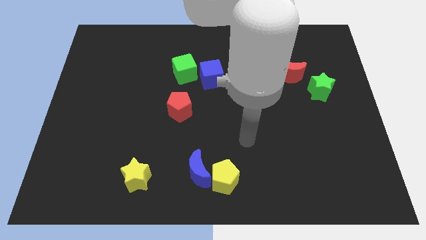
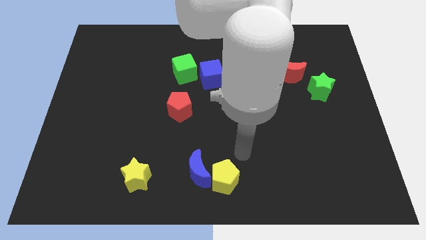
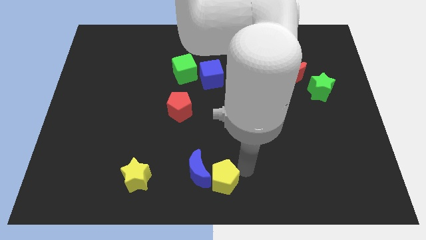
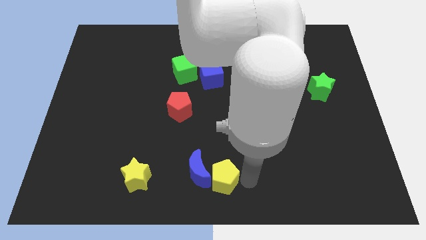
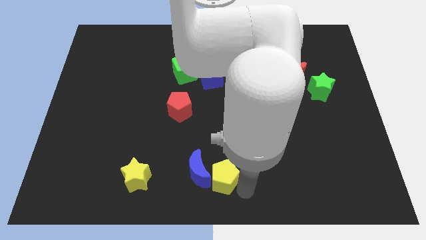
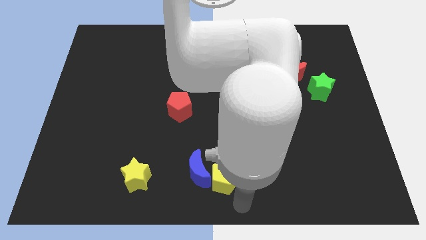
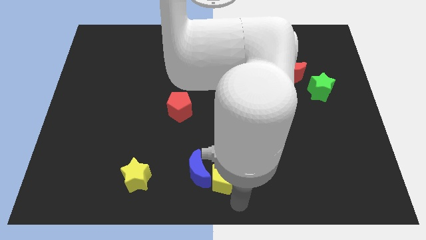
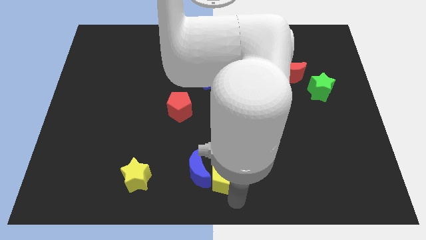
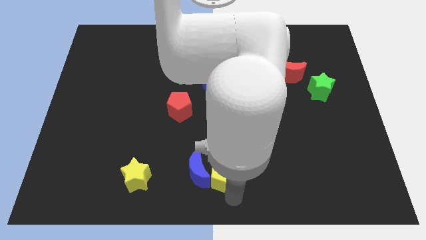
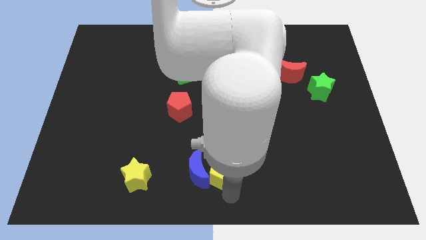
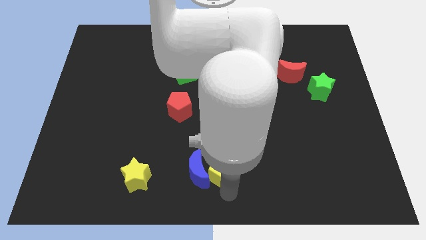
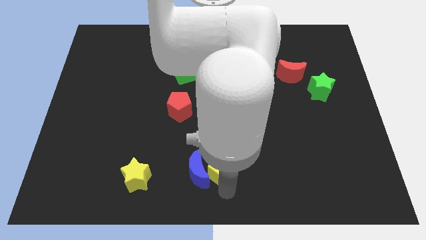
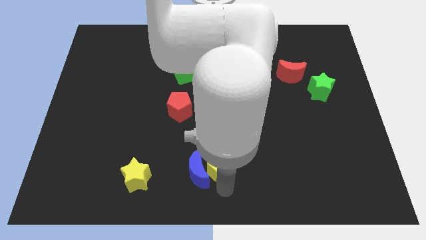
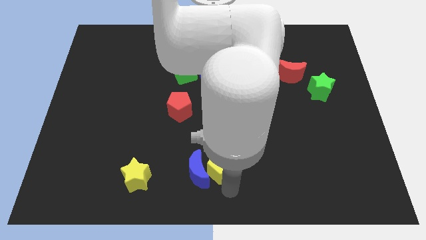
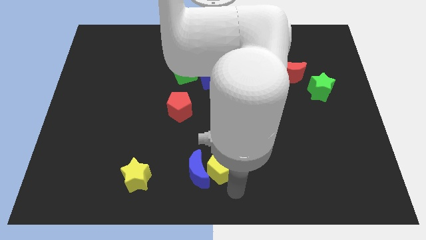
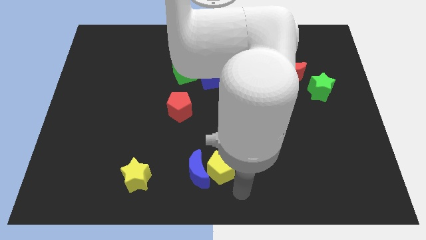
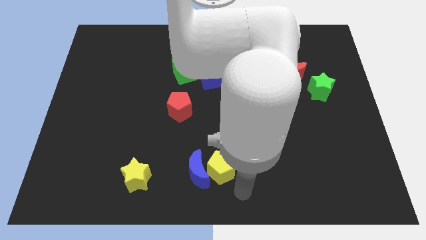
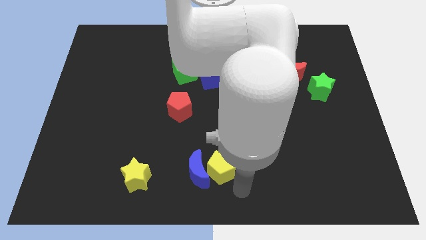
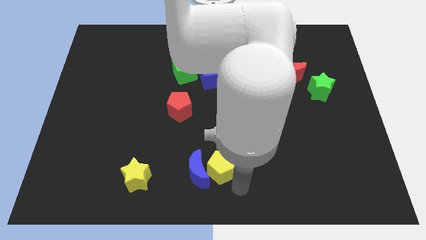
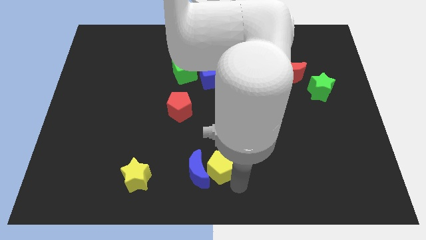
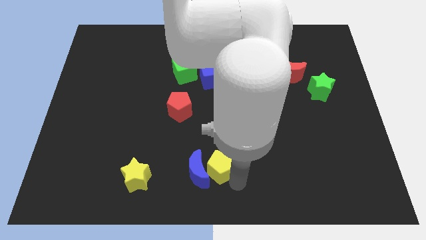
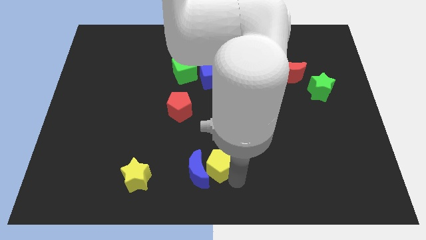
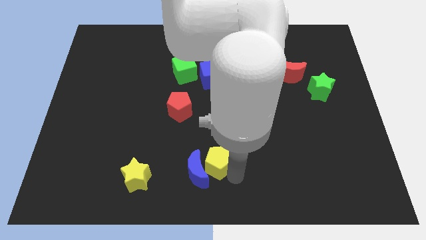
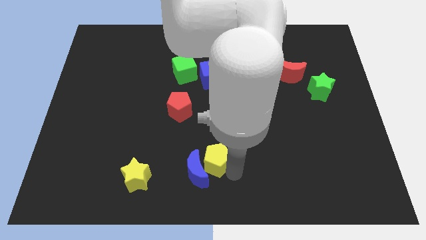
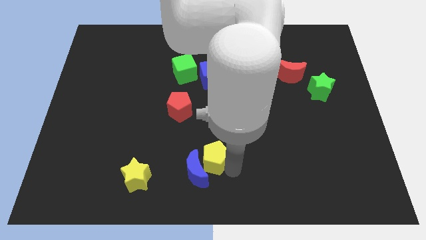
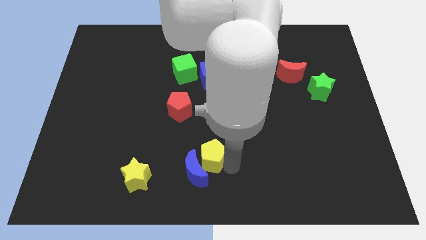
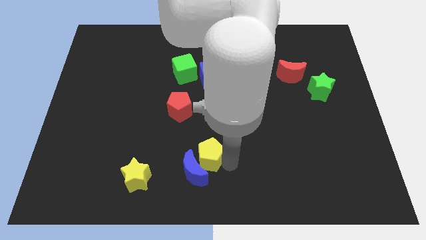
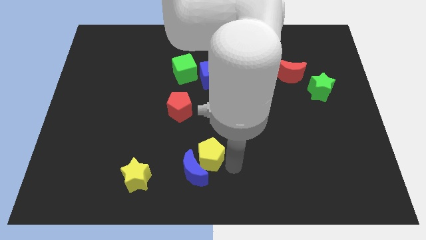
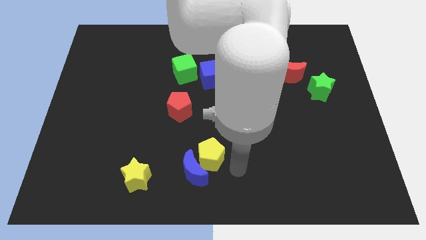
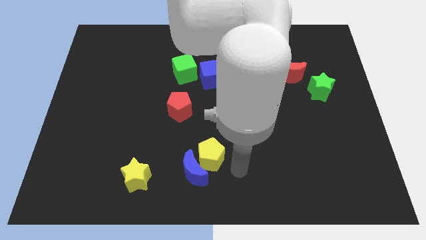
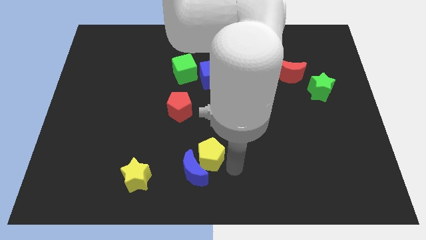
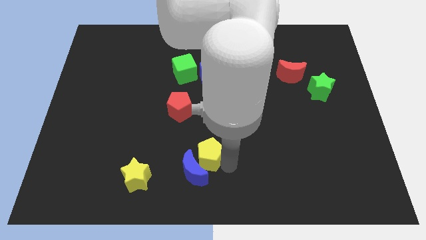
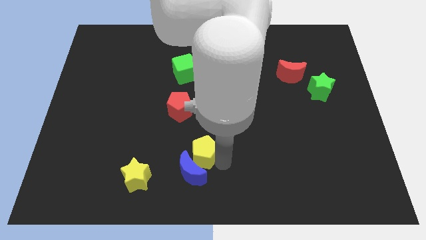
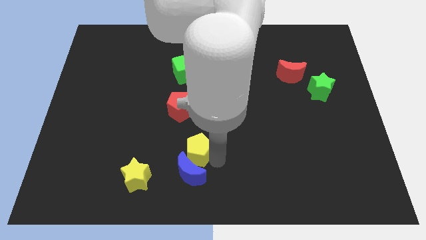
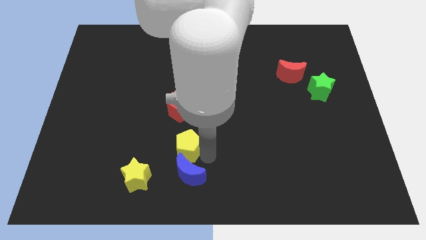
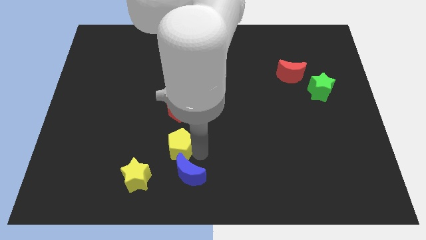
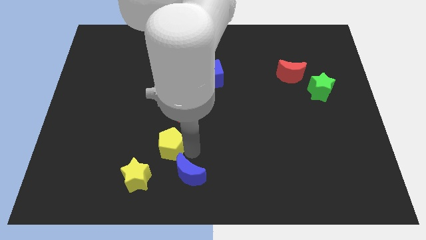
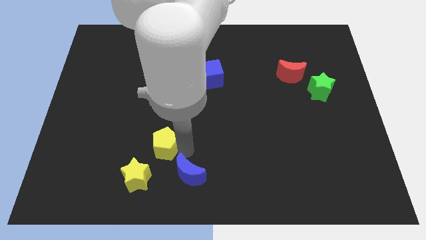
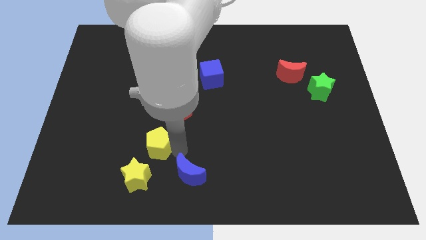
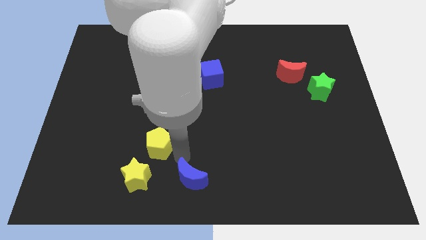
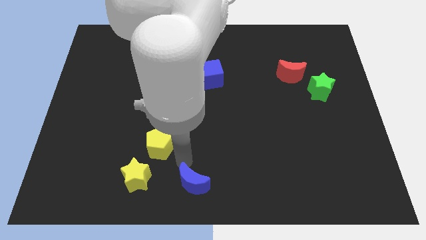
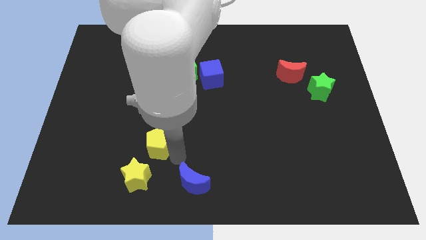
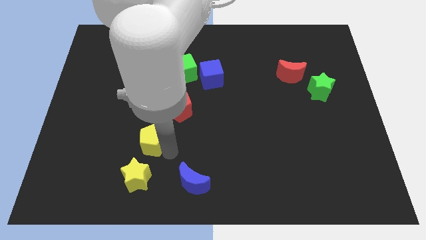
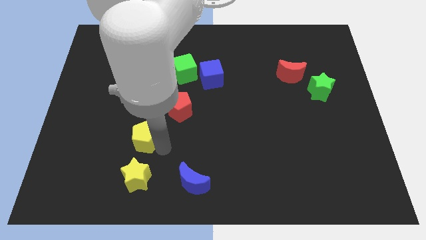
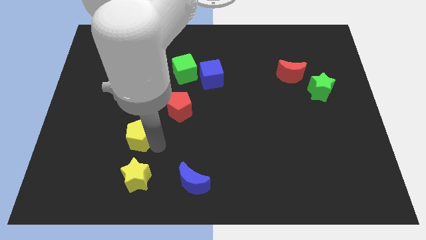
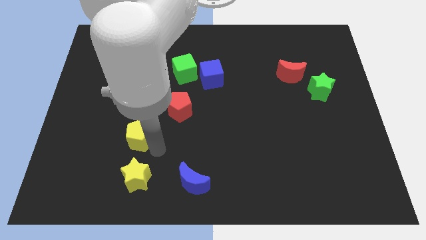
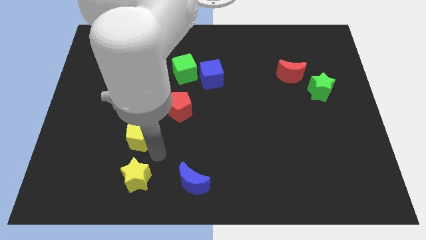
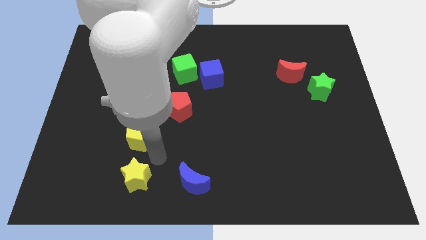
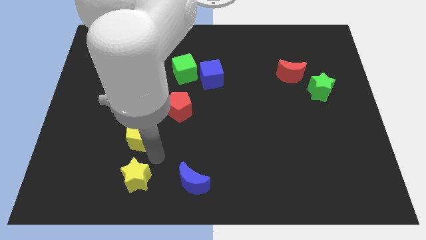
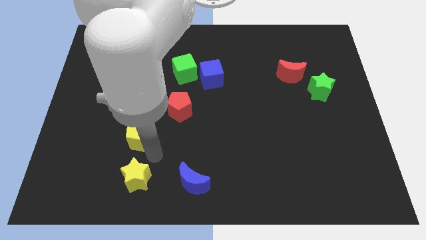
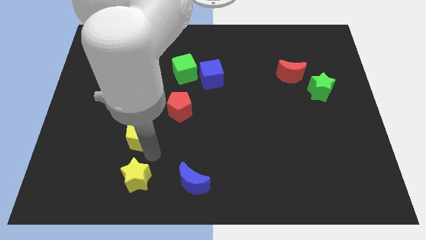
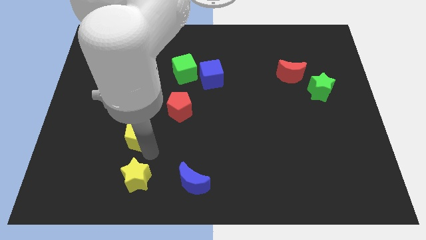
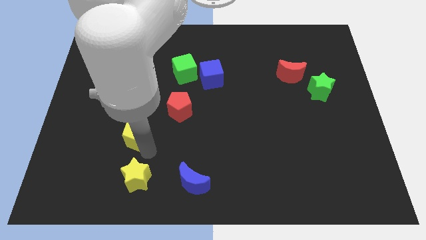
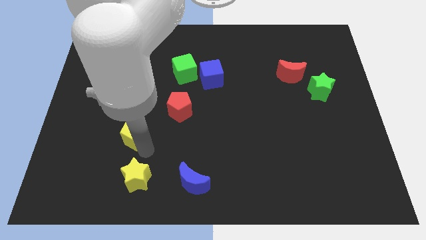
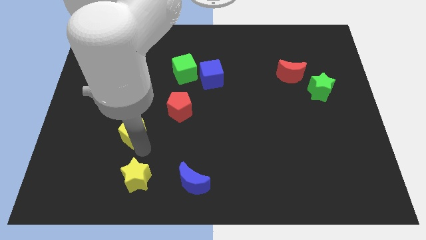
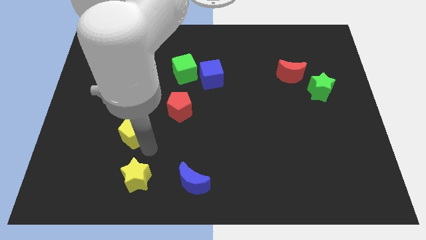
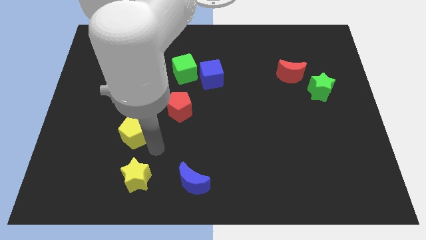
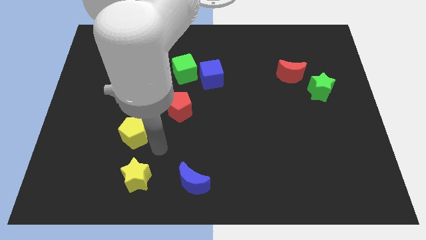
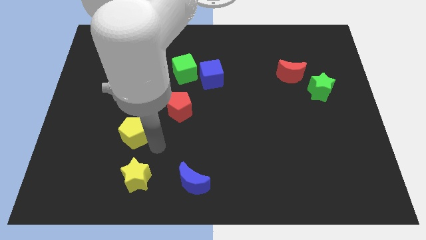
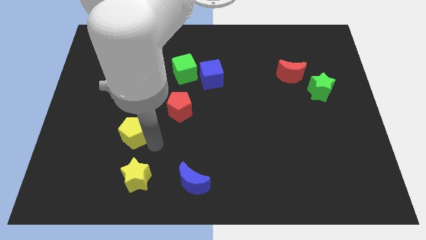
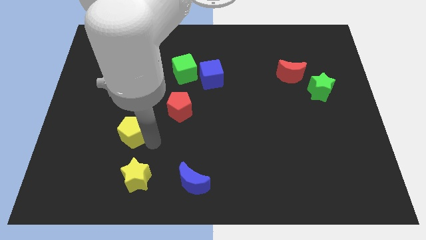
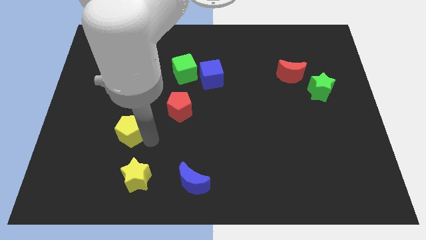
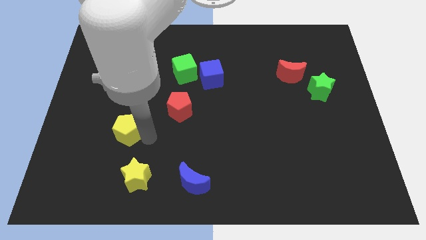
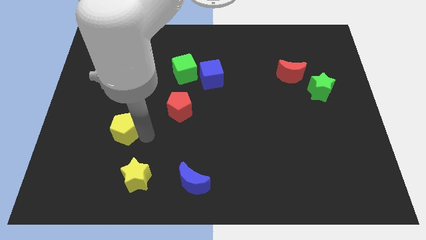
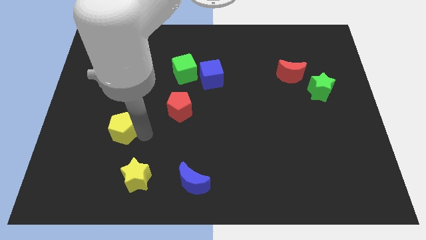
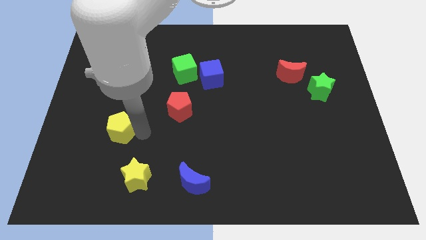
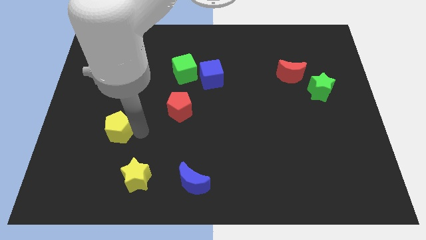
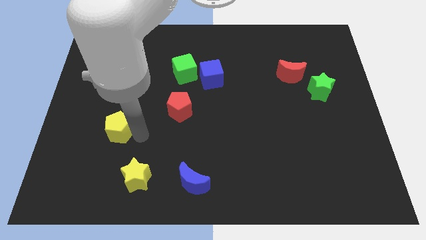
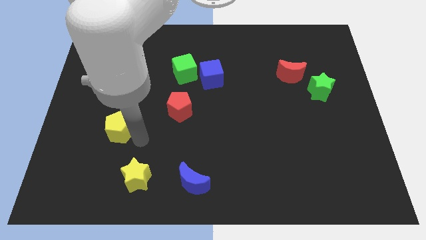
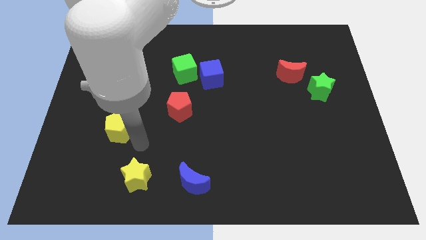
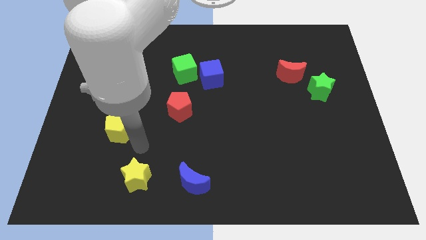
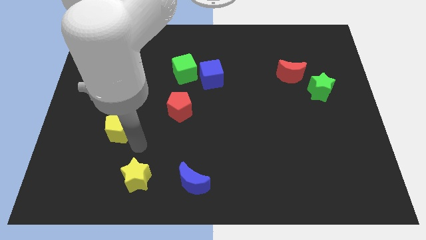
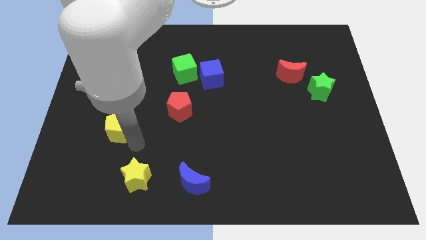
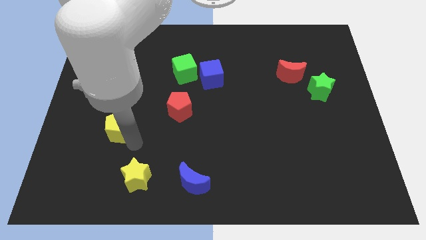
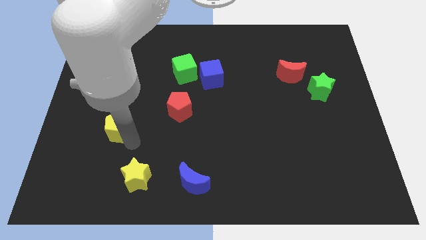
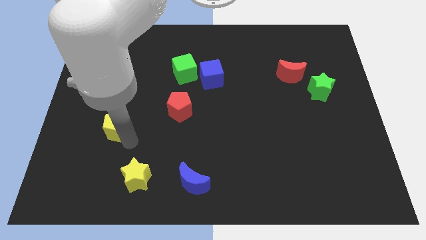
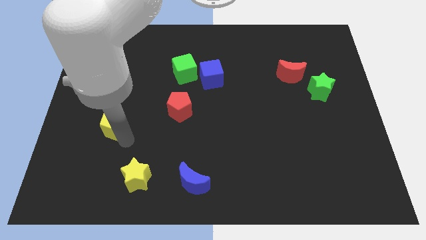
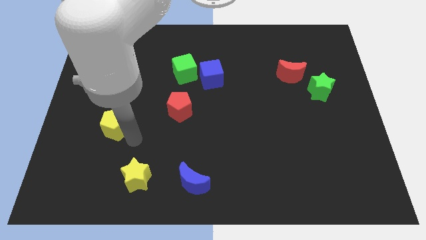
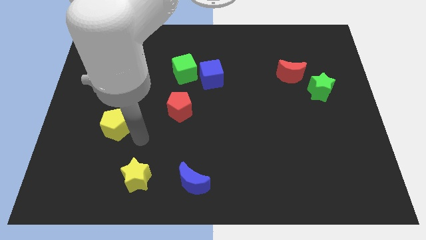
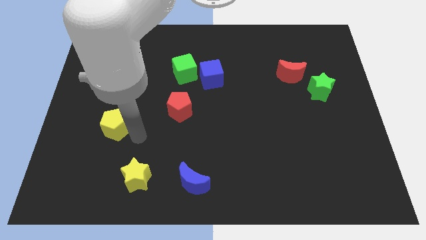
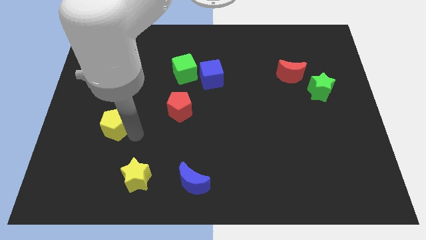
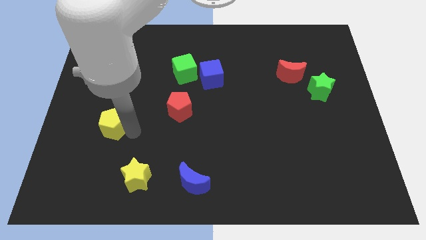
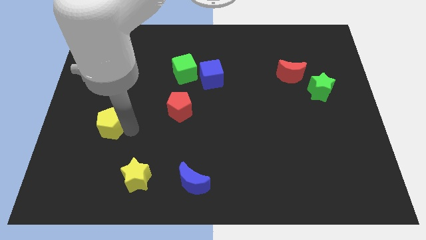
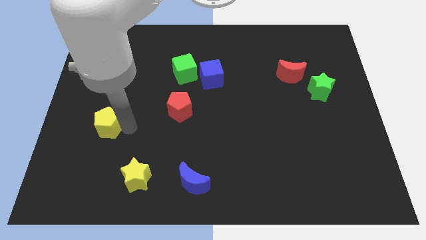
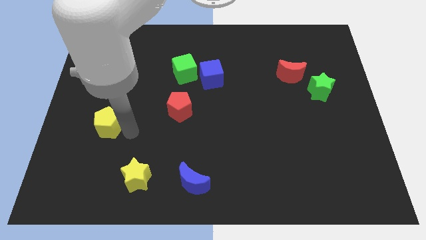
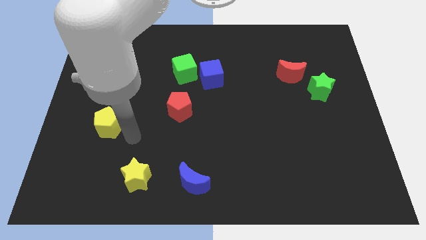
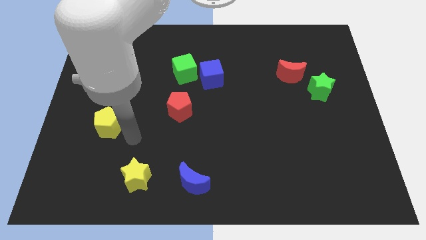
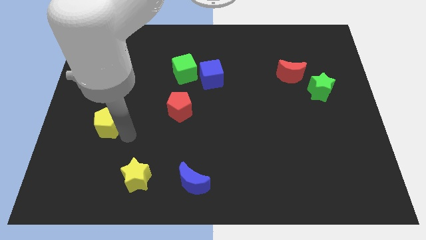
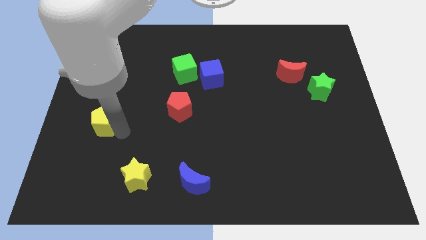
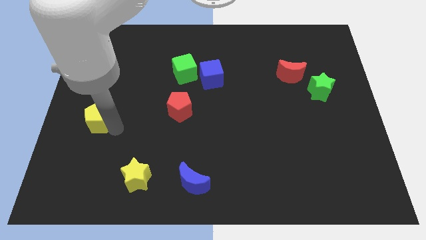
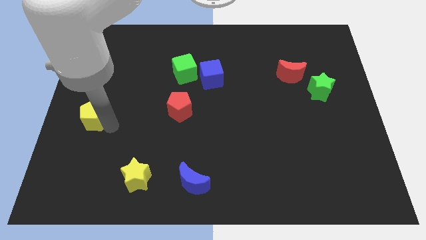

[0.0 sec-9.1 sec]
put the yellow pentagon to the center left
